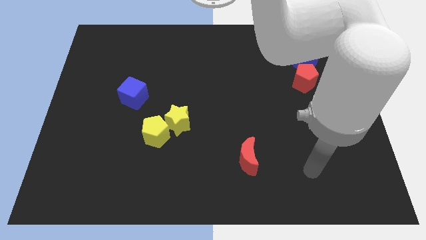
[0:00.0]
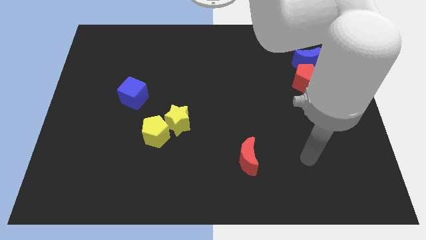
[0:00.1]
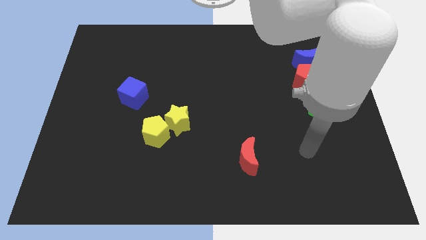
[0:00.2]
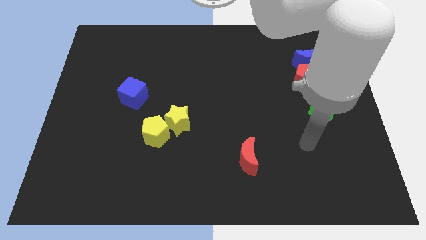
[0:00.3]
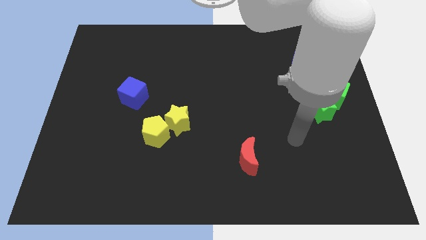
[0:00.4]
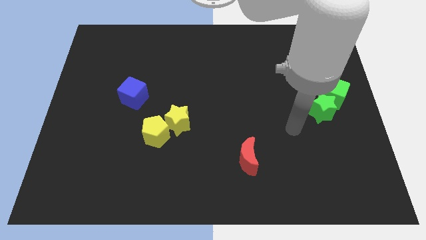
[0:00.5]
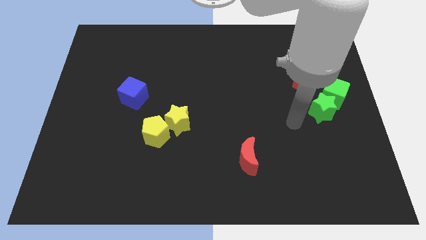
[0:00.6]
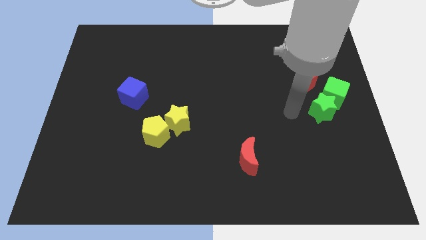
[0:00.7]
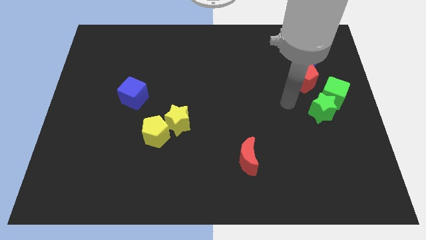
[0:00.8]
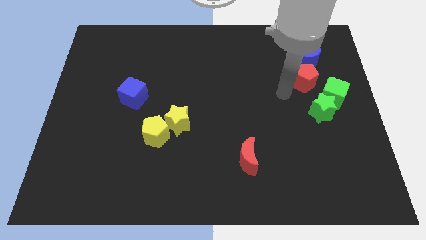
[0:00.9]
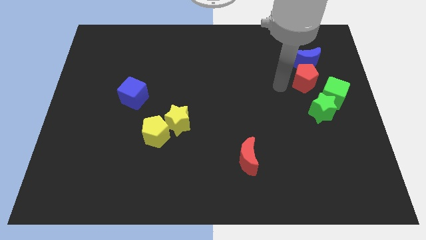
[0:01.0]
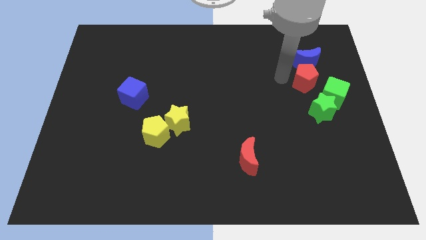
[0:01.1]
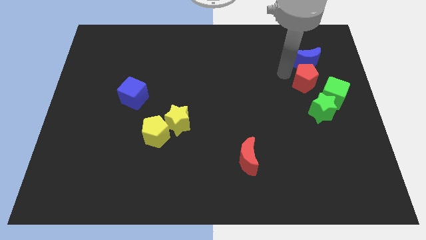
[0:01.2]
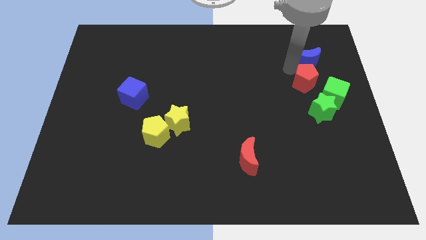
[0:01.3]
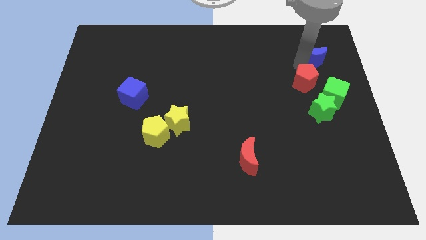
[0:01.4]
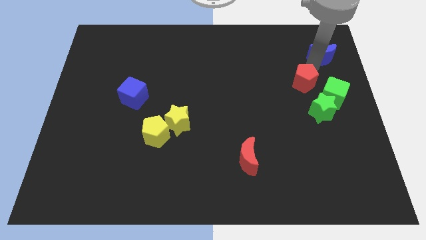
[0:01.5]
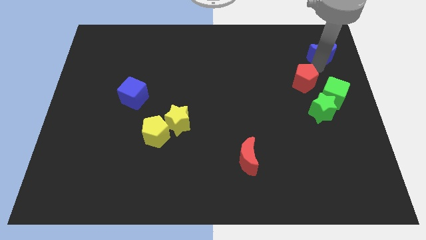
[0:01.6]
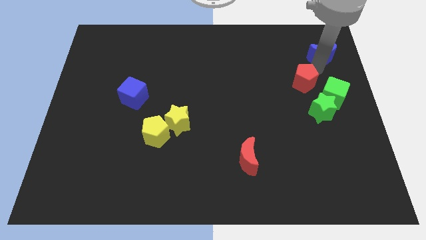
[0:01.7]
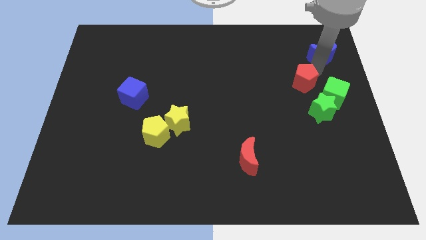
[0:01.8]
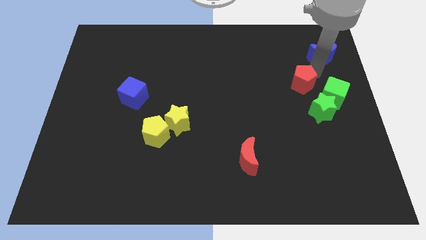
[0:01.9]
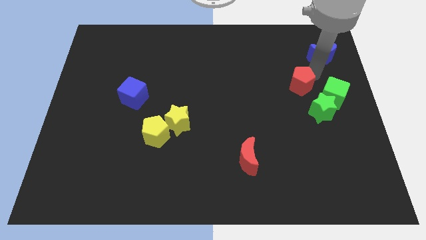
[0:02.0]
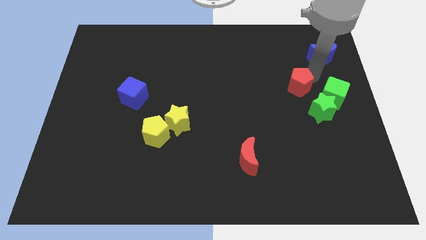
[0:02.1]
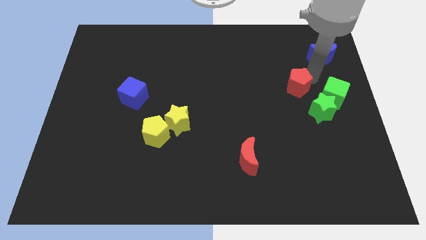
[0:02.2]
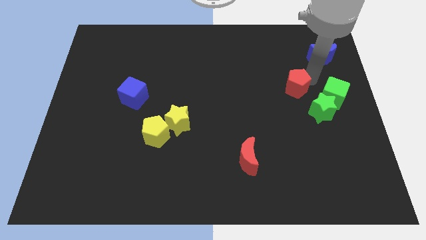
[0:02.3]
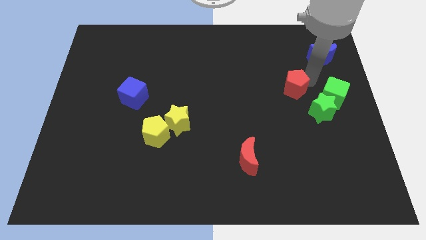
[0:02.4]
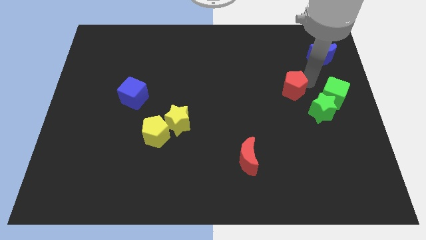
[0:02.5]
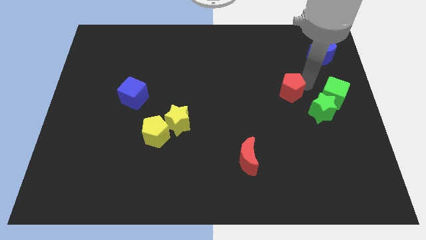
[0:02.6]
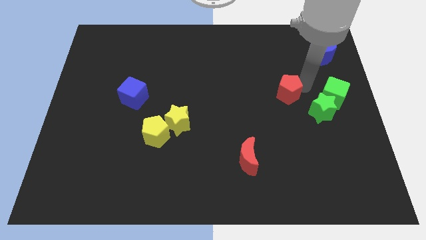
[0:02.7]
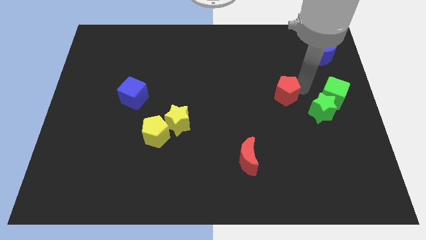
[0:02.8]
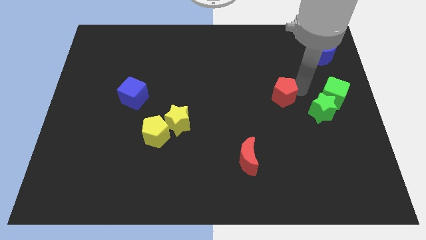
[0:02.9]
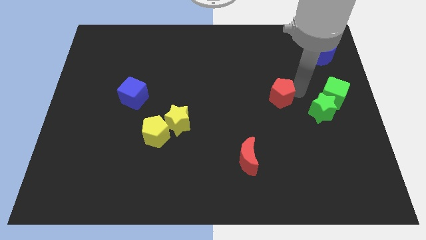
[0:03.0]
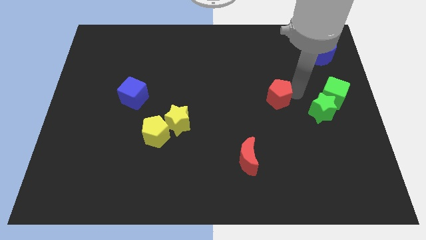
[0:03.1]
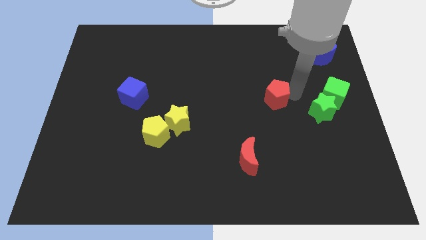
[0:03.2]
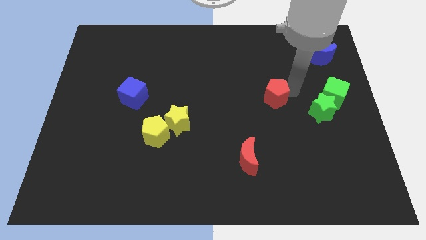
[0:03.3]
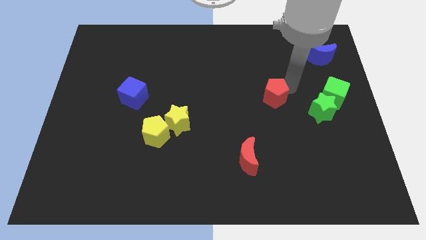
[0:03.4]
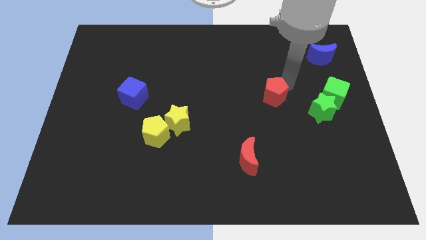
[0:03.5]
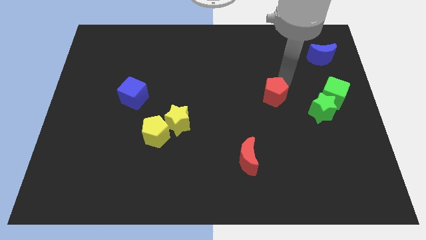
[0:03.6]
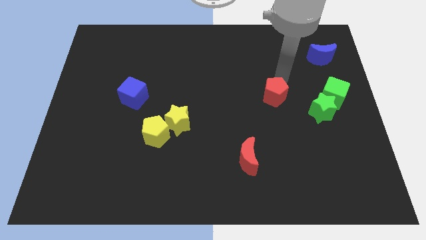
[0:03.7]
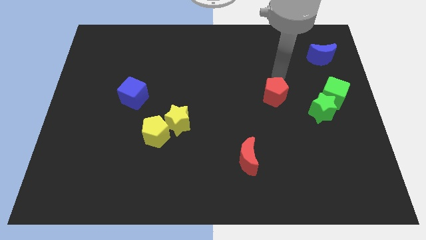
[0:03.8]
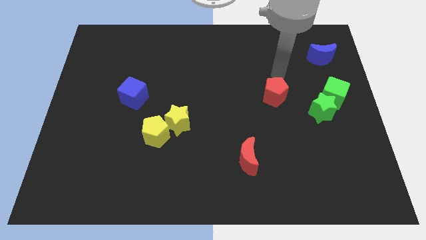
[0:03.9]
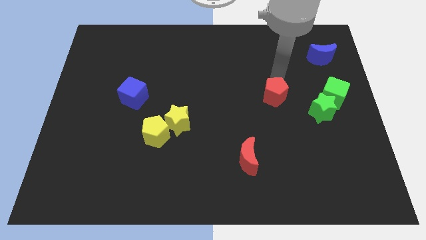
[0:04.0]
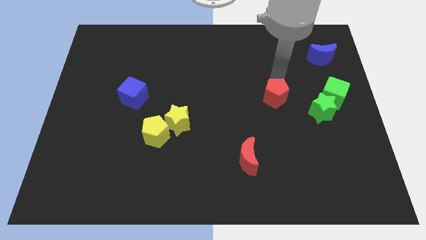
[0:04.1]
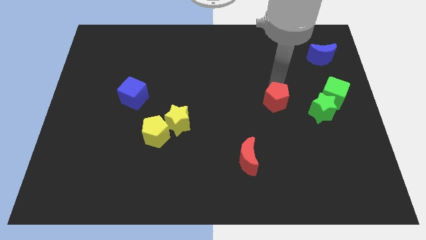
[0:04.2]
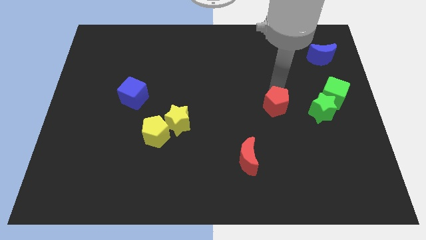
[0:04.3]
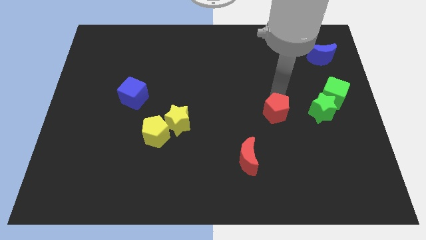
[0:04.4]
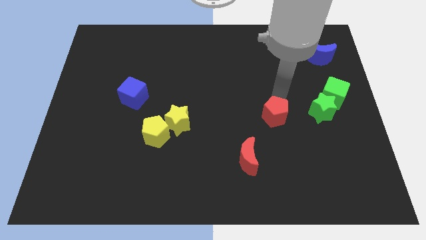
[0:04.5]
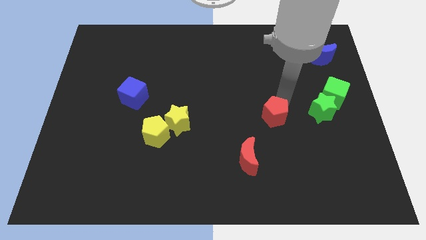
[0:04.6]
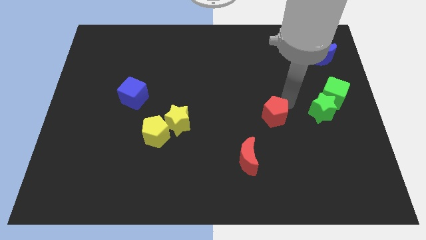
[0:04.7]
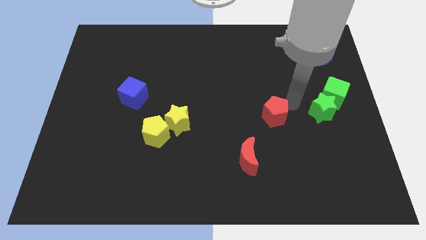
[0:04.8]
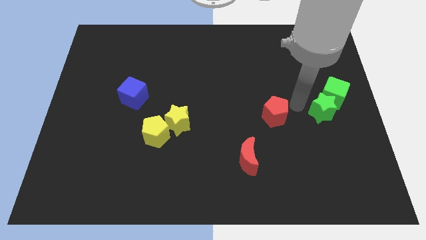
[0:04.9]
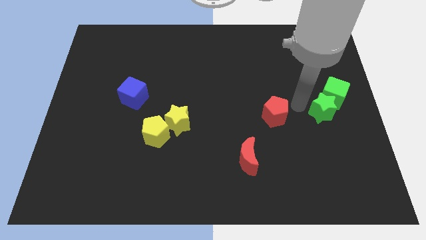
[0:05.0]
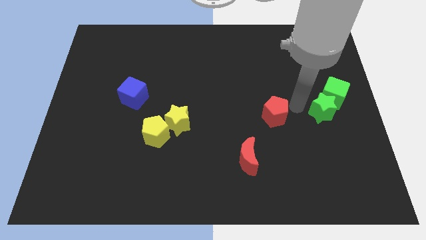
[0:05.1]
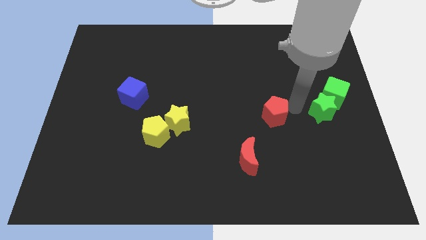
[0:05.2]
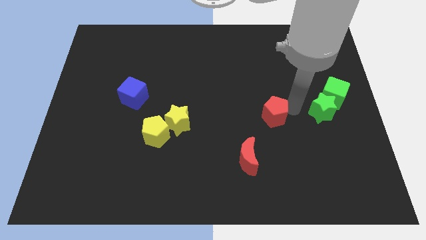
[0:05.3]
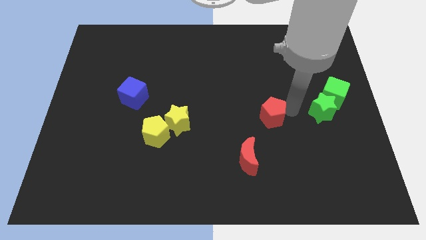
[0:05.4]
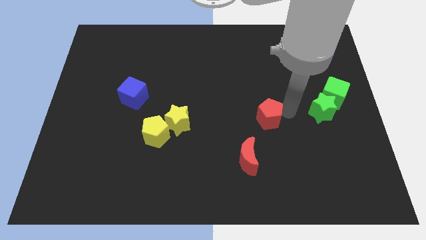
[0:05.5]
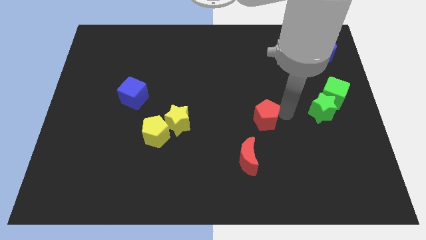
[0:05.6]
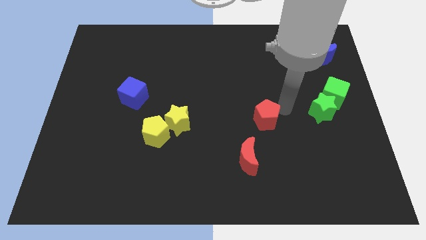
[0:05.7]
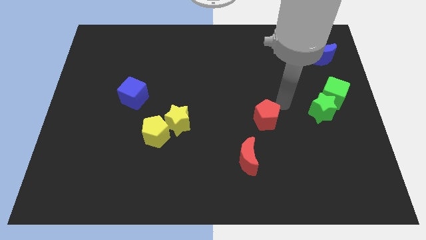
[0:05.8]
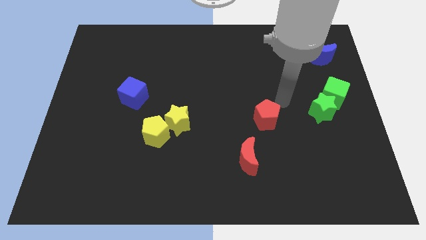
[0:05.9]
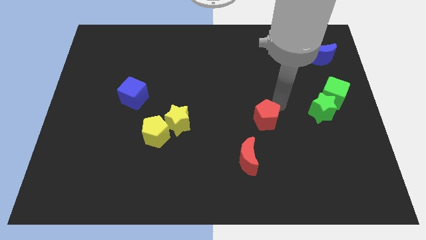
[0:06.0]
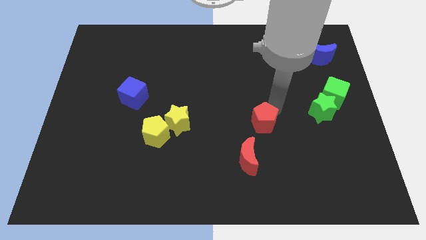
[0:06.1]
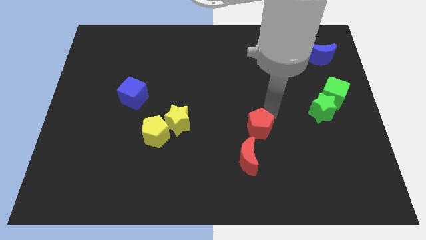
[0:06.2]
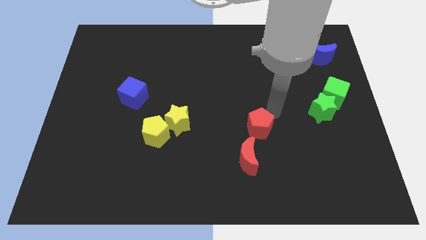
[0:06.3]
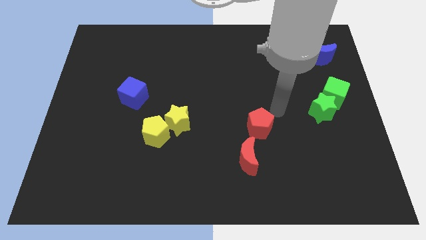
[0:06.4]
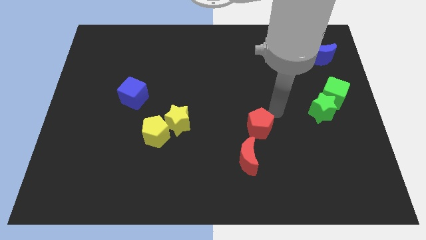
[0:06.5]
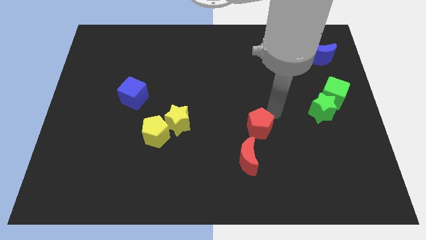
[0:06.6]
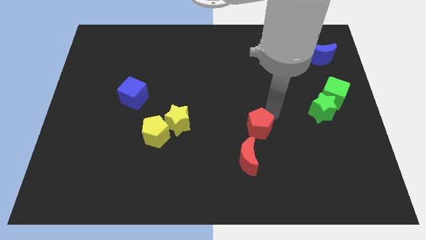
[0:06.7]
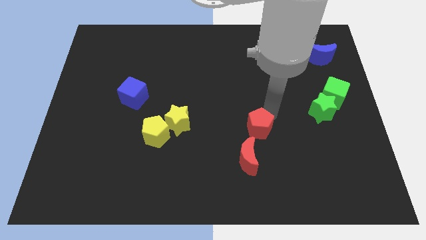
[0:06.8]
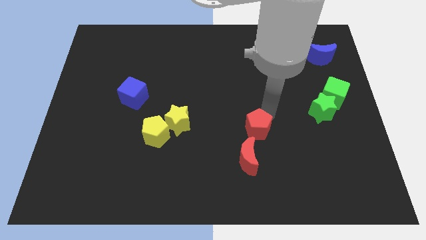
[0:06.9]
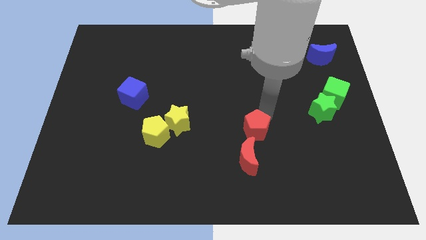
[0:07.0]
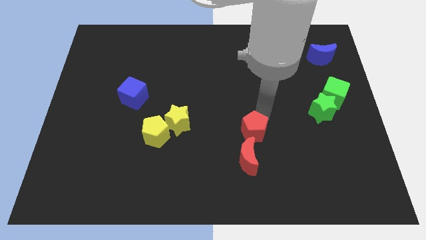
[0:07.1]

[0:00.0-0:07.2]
slide the red pentagon down and to the left diagonally

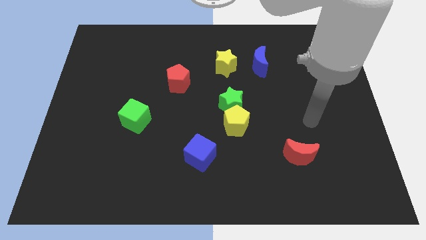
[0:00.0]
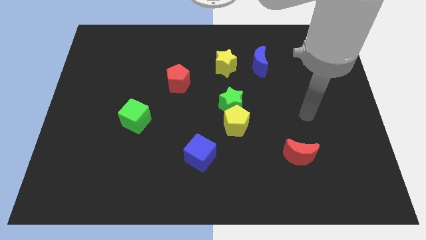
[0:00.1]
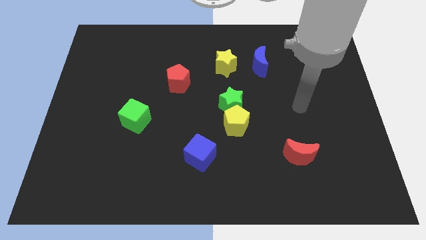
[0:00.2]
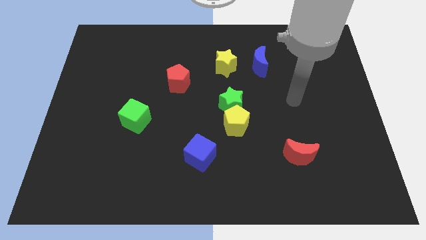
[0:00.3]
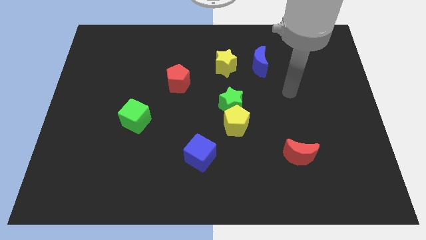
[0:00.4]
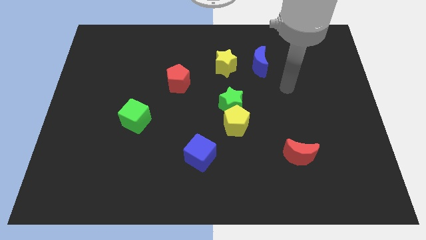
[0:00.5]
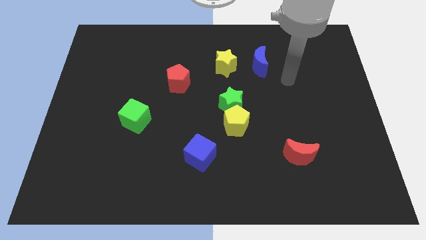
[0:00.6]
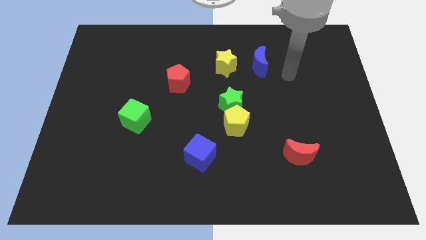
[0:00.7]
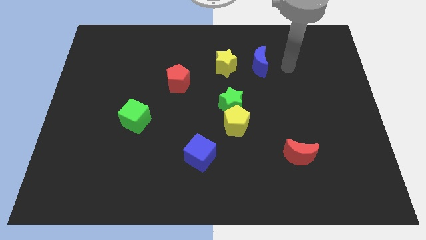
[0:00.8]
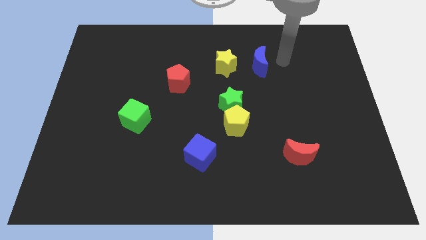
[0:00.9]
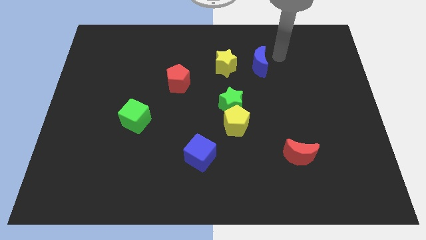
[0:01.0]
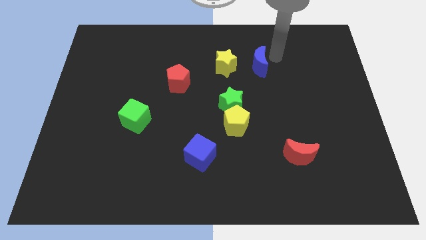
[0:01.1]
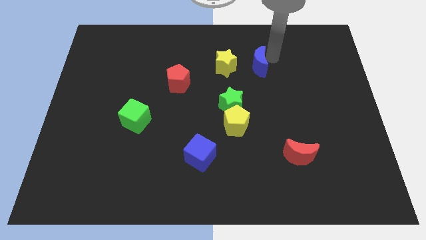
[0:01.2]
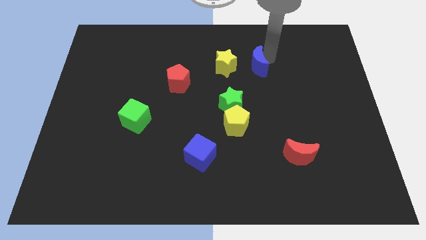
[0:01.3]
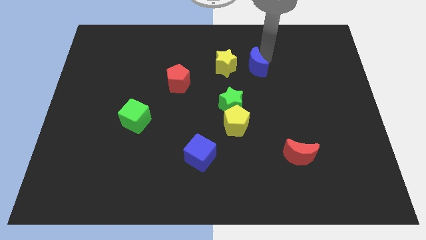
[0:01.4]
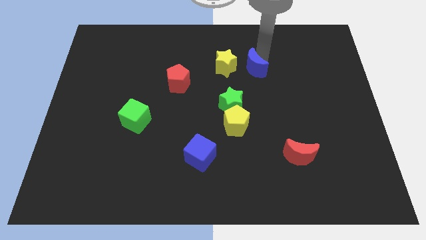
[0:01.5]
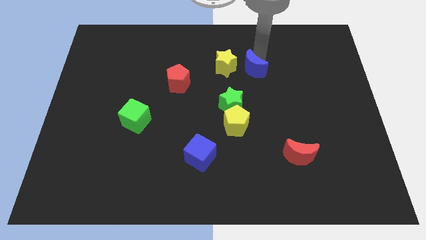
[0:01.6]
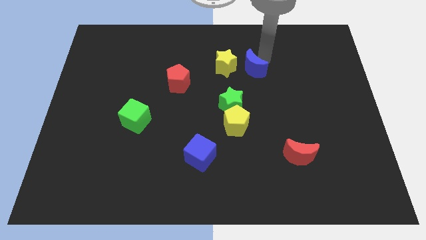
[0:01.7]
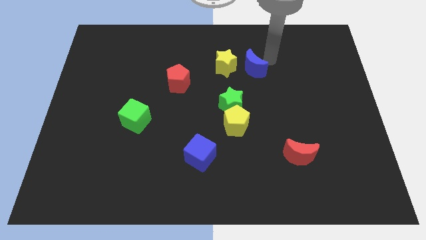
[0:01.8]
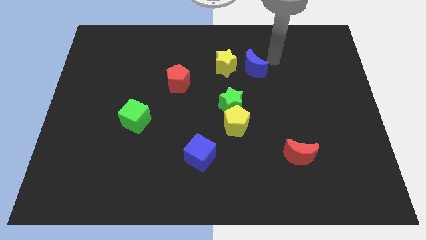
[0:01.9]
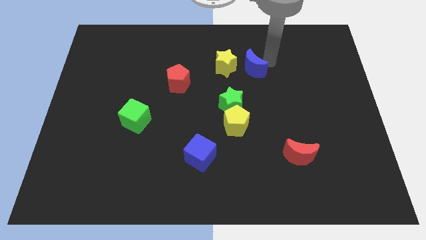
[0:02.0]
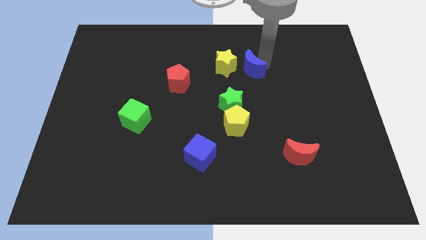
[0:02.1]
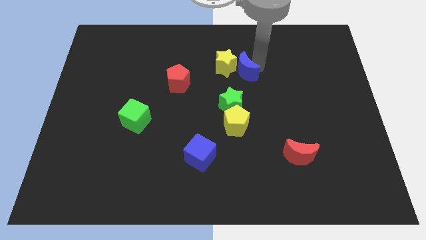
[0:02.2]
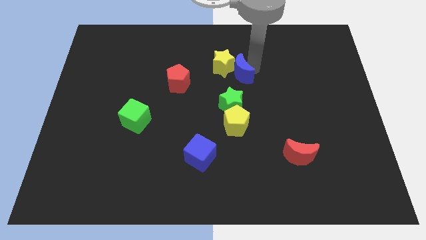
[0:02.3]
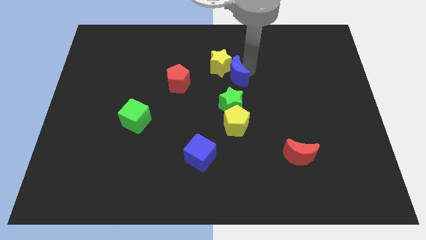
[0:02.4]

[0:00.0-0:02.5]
slide the blue moon a little bit downwards and to the left
